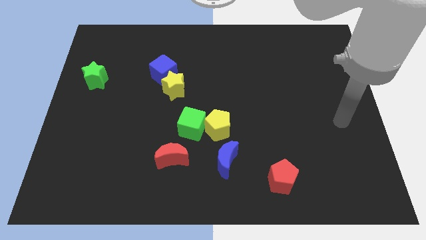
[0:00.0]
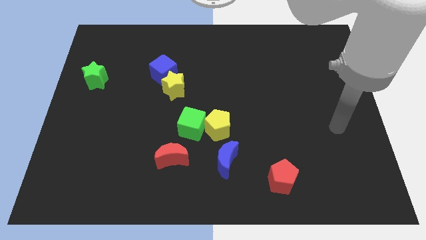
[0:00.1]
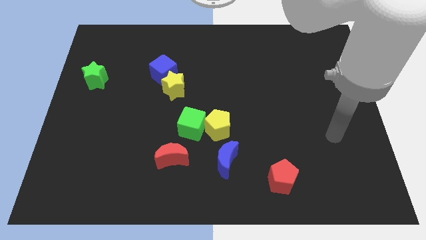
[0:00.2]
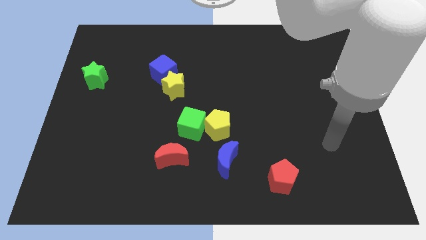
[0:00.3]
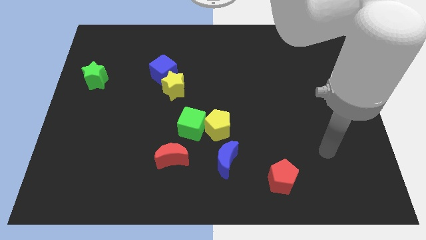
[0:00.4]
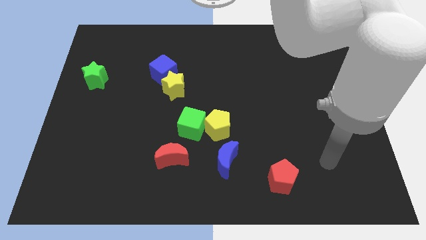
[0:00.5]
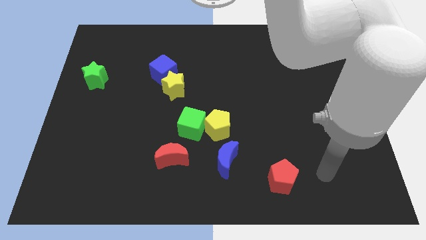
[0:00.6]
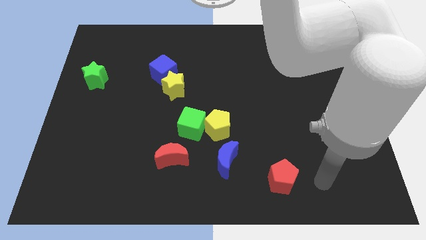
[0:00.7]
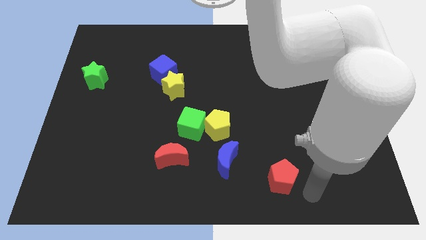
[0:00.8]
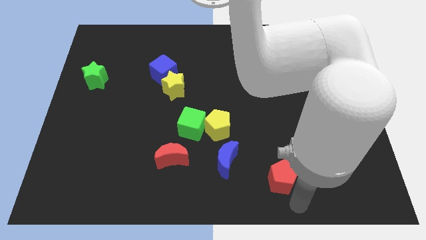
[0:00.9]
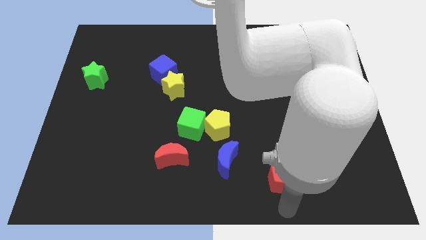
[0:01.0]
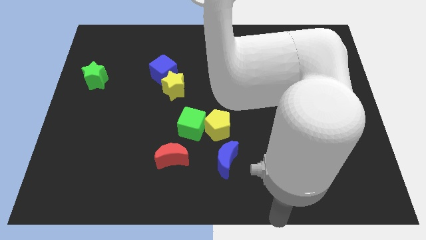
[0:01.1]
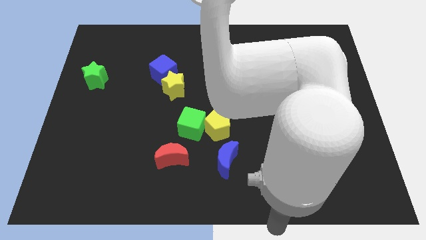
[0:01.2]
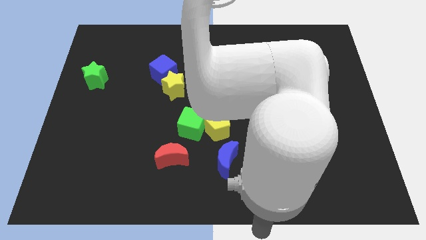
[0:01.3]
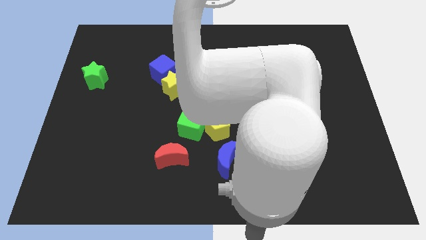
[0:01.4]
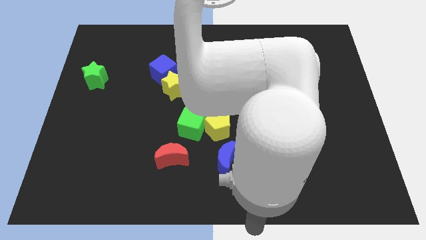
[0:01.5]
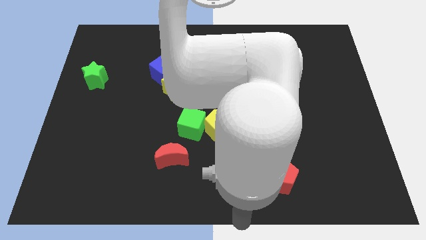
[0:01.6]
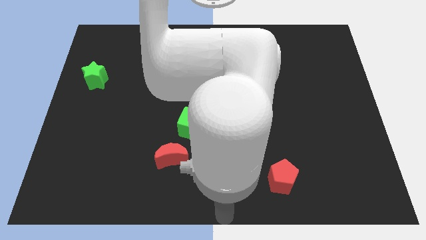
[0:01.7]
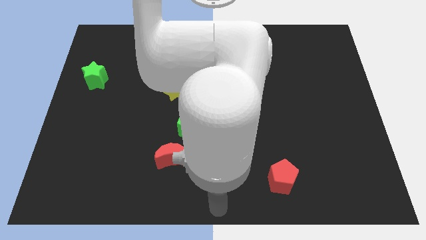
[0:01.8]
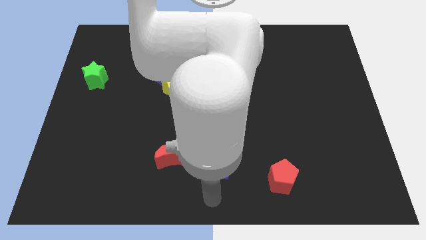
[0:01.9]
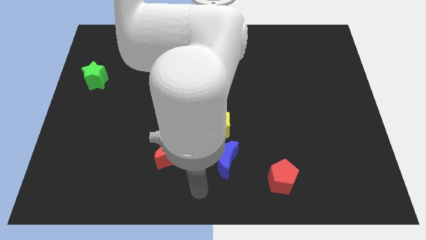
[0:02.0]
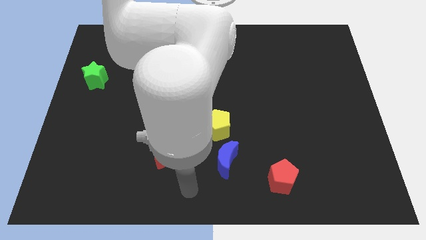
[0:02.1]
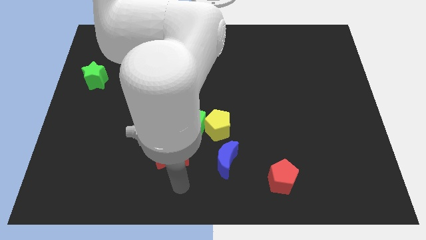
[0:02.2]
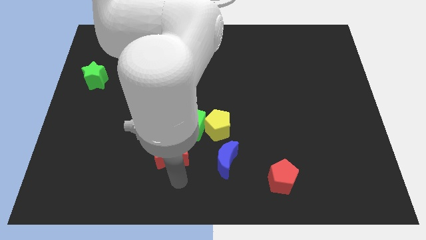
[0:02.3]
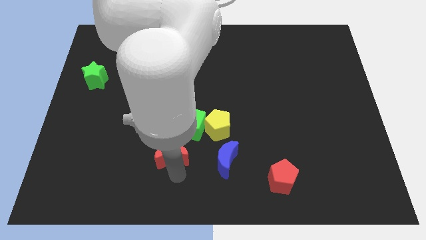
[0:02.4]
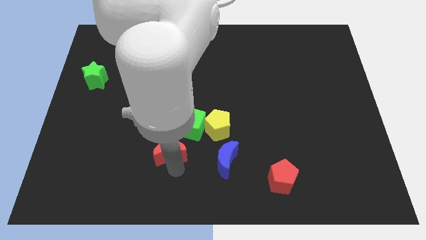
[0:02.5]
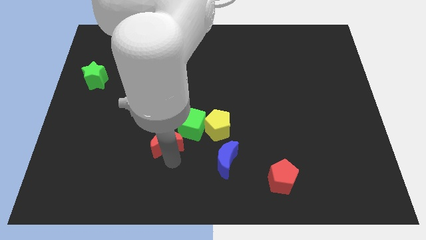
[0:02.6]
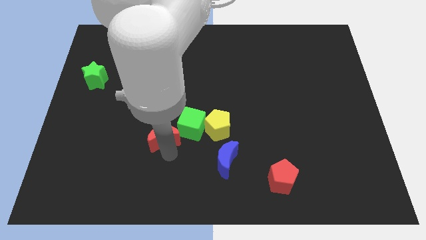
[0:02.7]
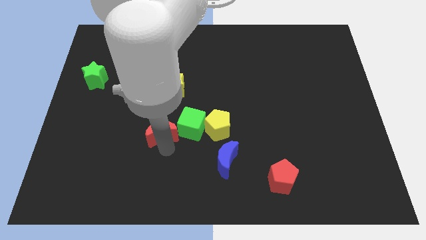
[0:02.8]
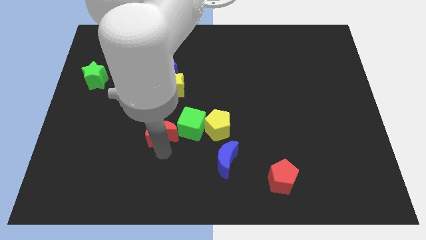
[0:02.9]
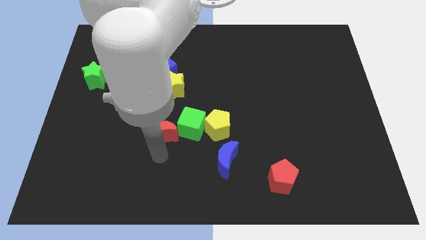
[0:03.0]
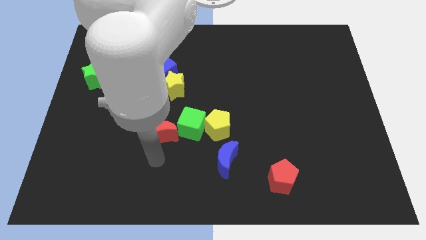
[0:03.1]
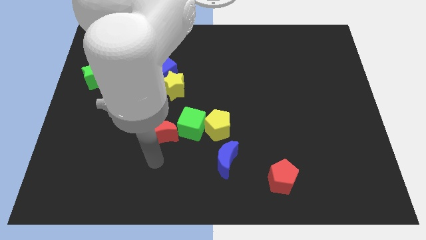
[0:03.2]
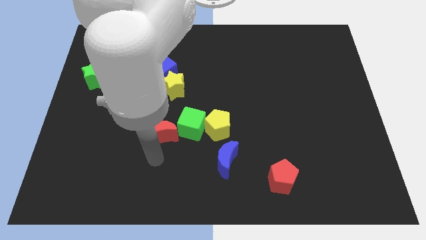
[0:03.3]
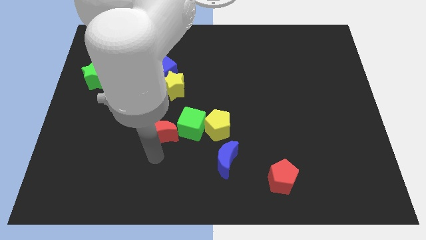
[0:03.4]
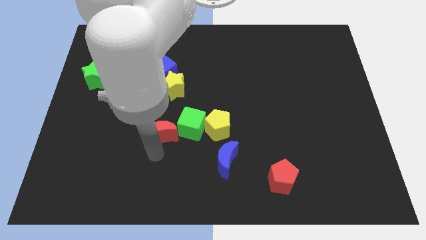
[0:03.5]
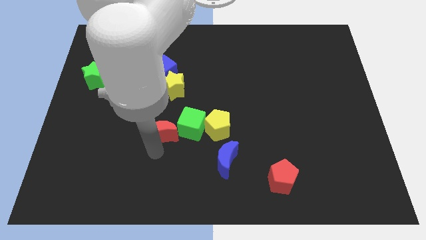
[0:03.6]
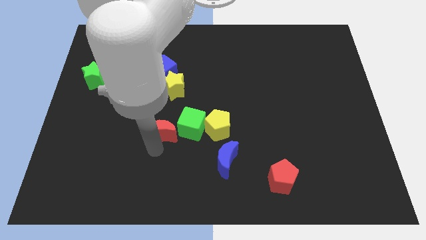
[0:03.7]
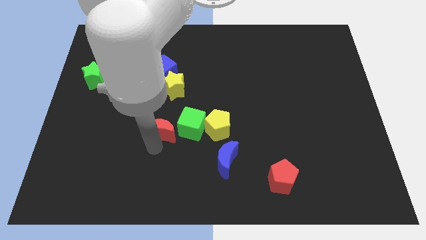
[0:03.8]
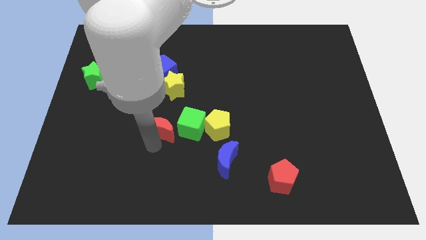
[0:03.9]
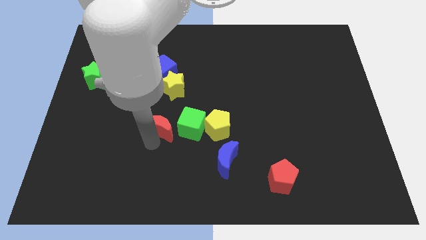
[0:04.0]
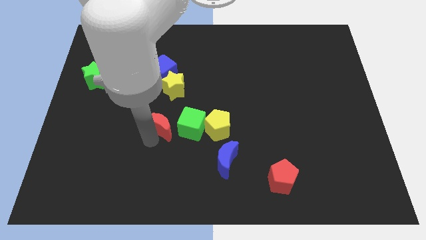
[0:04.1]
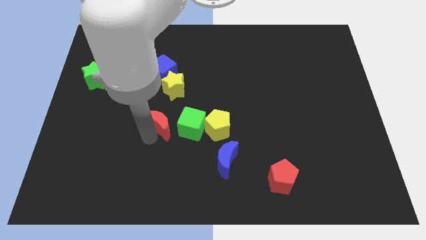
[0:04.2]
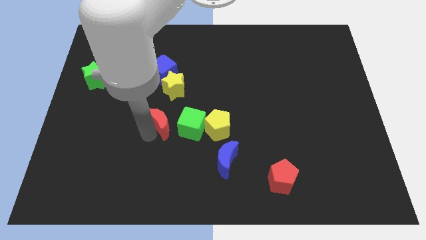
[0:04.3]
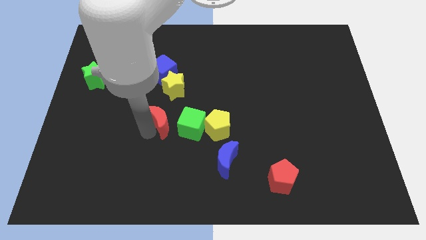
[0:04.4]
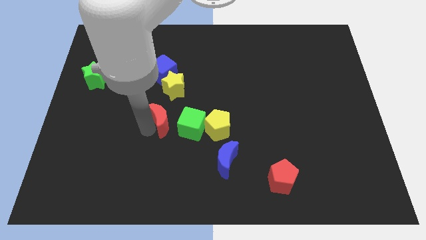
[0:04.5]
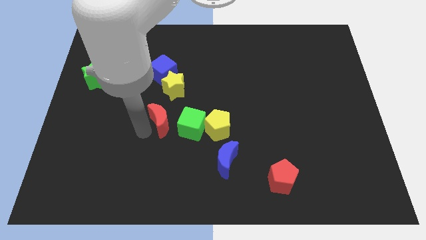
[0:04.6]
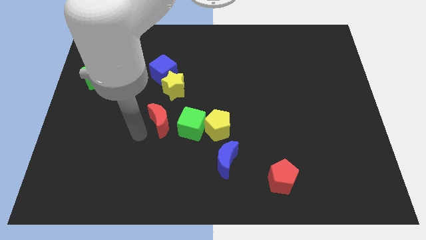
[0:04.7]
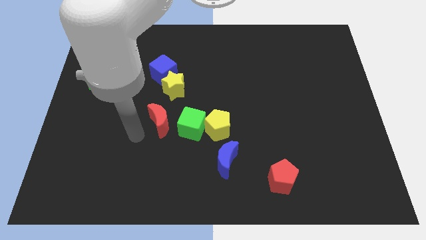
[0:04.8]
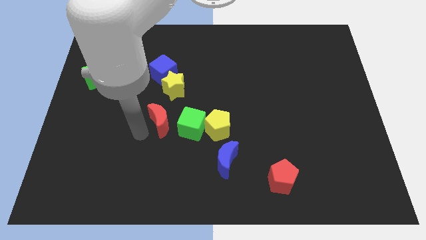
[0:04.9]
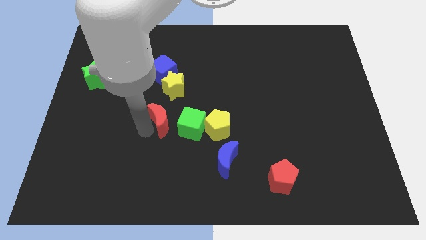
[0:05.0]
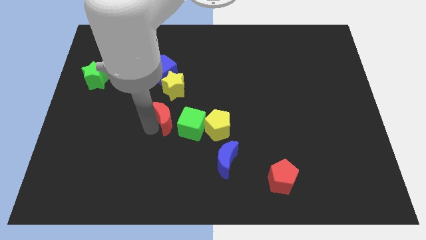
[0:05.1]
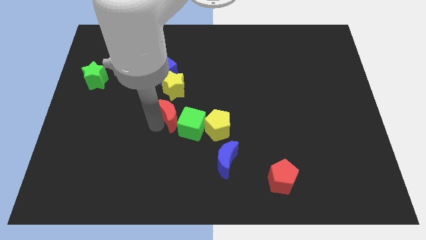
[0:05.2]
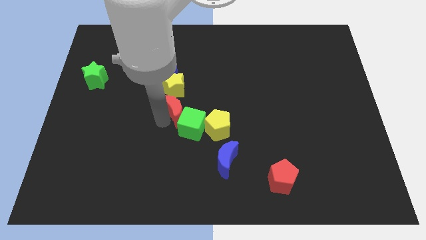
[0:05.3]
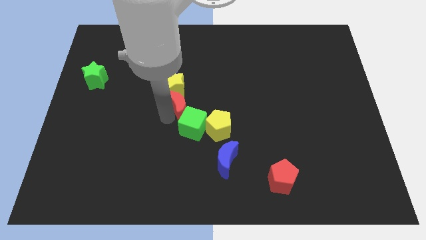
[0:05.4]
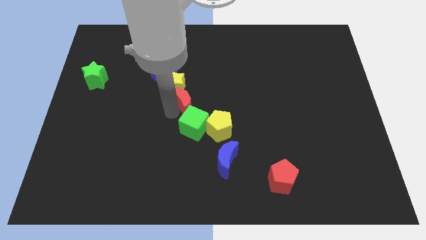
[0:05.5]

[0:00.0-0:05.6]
slide the red moon a little bit upwards and then right

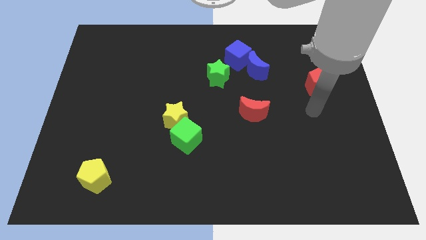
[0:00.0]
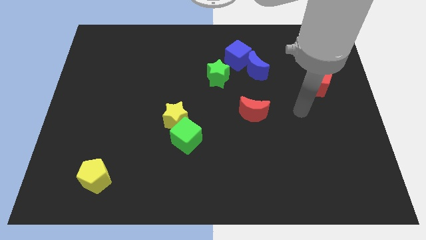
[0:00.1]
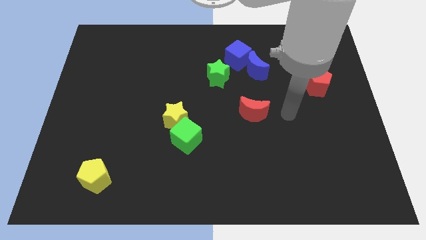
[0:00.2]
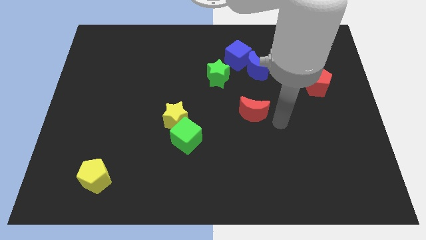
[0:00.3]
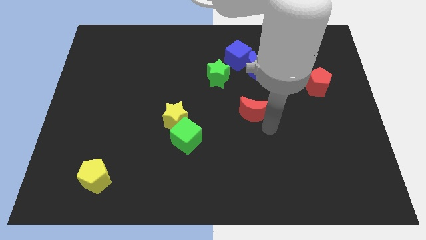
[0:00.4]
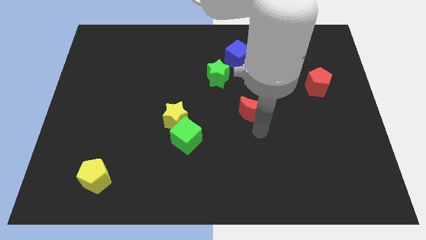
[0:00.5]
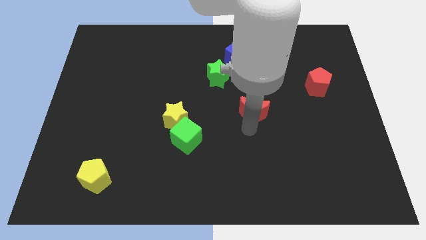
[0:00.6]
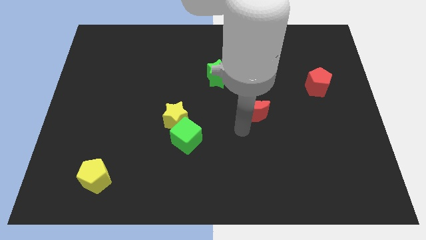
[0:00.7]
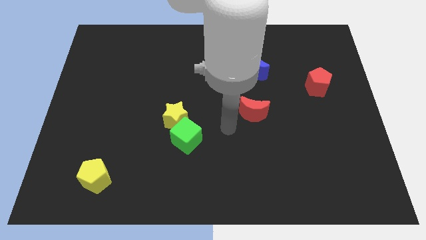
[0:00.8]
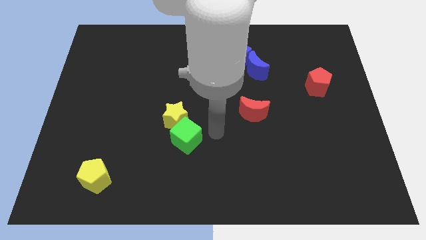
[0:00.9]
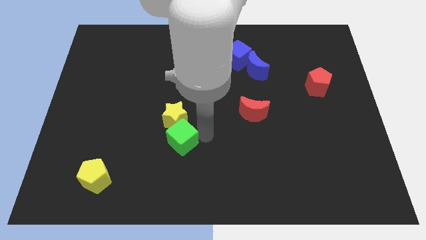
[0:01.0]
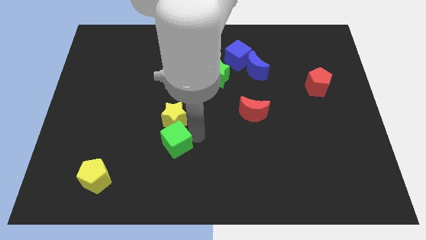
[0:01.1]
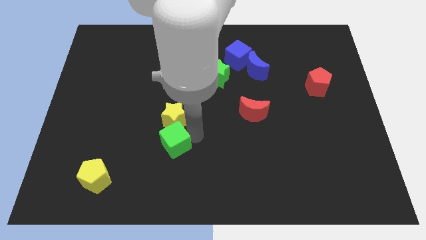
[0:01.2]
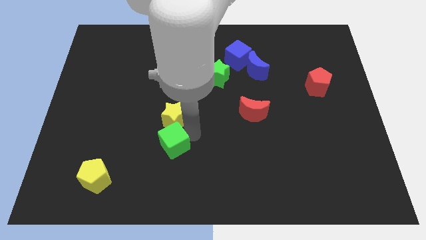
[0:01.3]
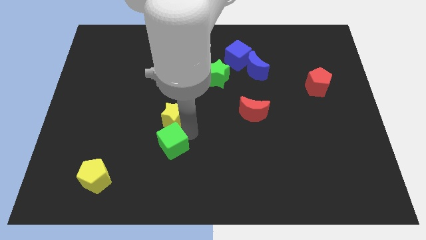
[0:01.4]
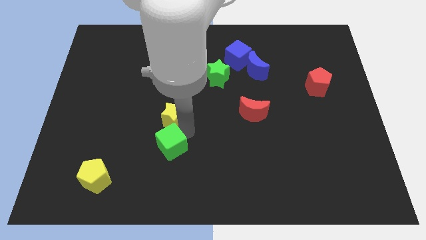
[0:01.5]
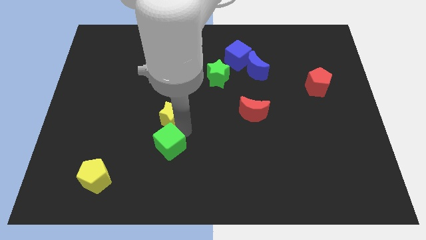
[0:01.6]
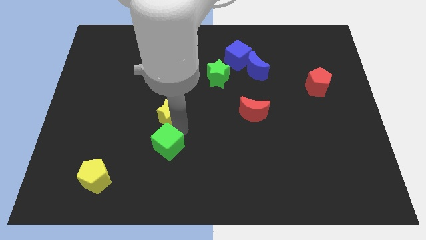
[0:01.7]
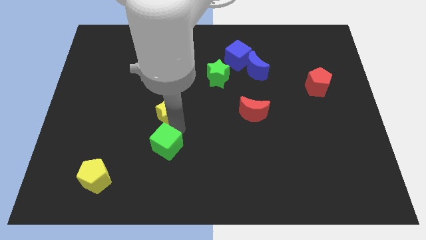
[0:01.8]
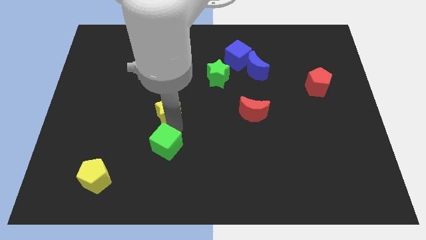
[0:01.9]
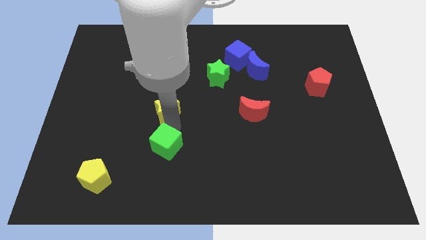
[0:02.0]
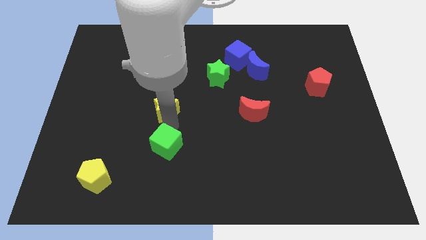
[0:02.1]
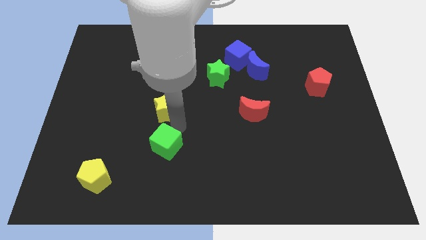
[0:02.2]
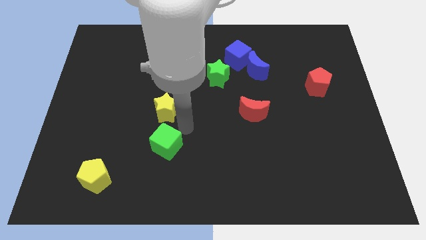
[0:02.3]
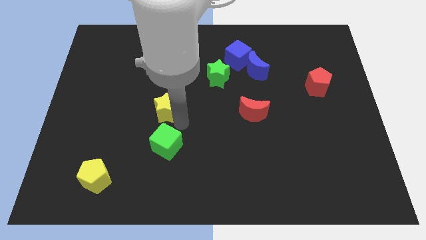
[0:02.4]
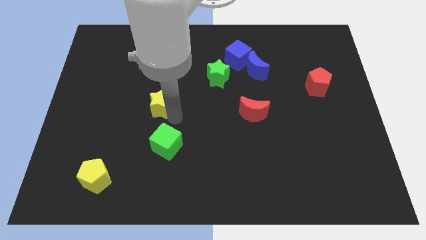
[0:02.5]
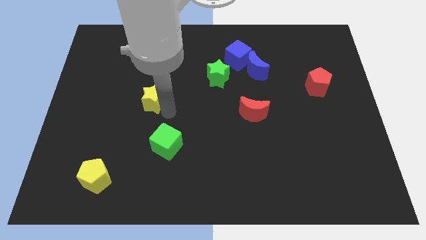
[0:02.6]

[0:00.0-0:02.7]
slightly push the yellow star up and to the left diagonally
